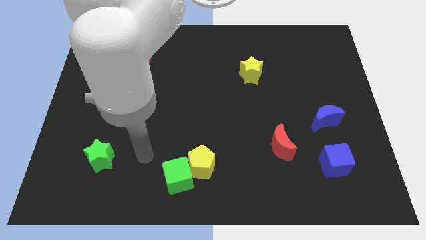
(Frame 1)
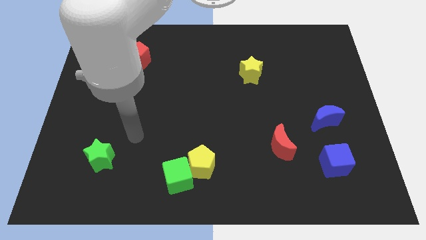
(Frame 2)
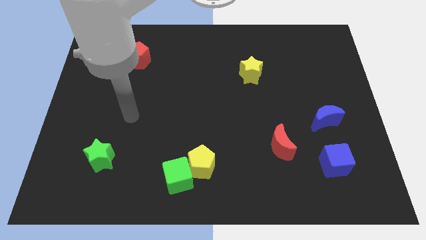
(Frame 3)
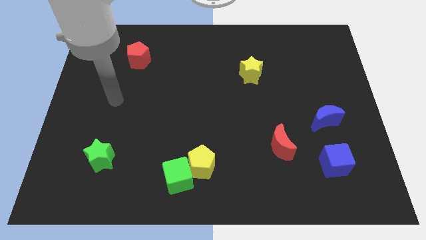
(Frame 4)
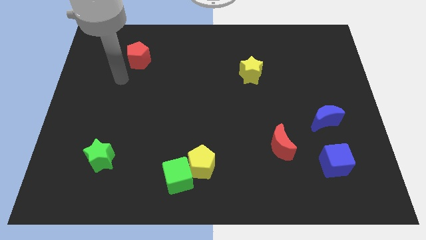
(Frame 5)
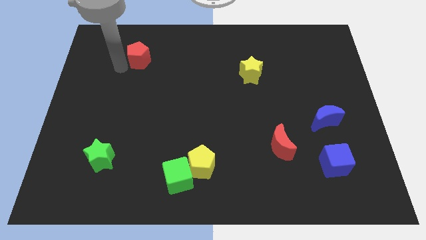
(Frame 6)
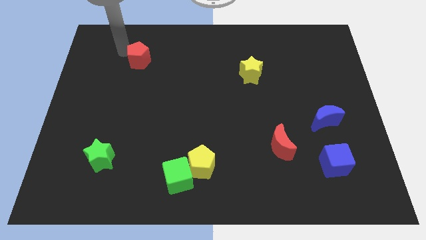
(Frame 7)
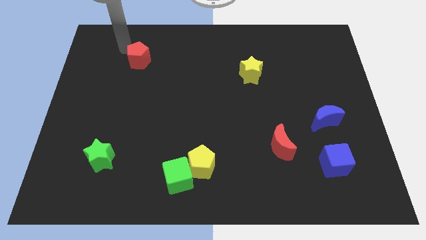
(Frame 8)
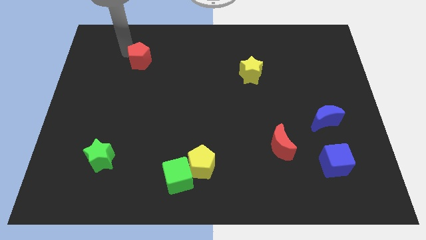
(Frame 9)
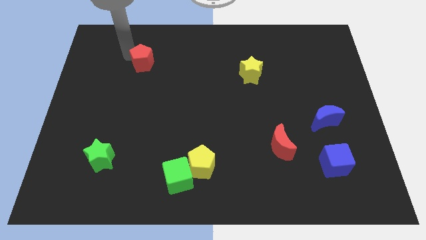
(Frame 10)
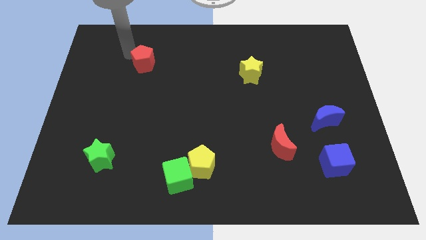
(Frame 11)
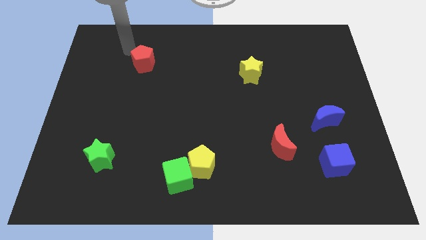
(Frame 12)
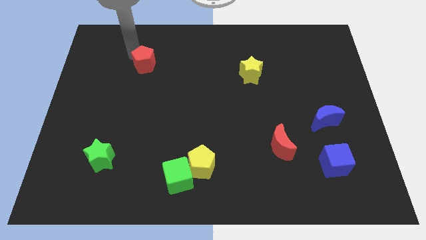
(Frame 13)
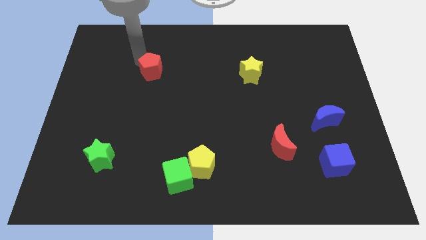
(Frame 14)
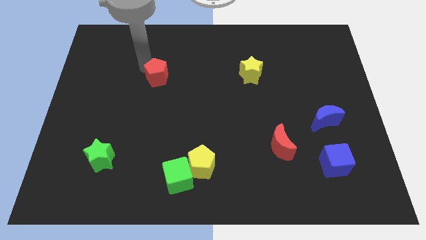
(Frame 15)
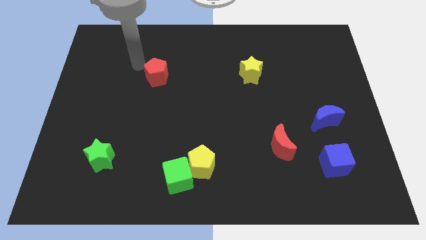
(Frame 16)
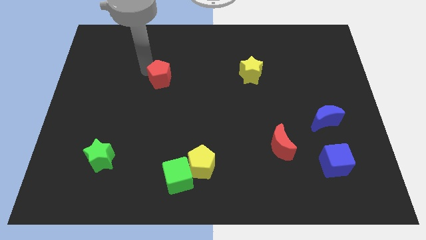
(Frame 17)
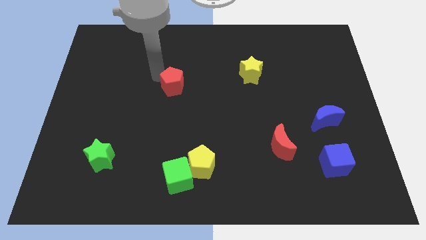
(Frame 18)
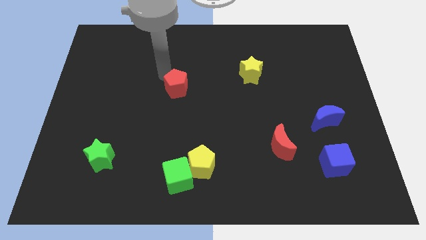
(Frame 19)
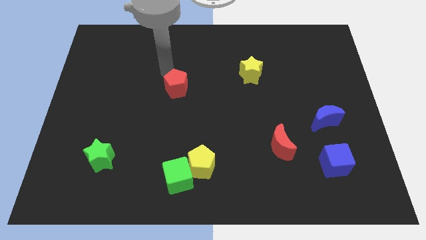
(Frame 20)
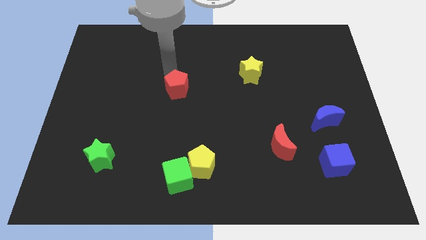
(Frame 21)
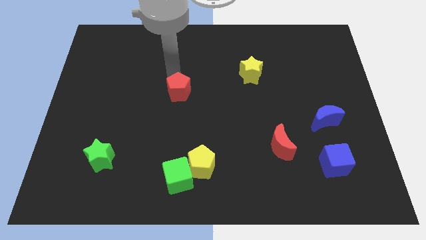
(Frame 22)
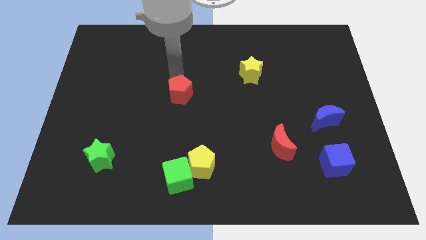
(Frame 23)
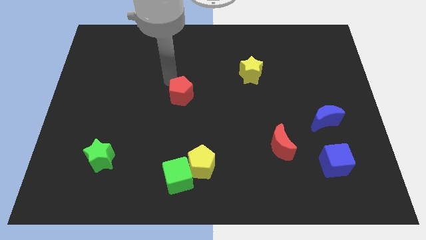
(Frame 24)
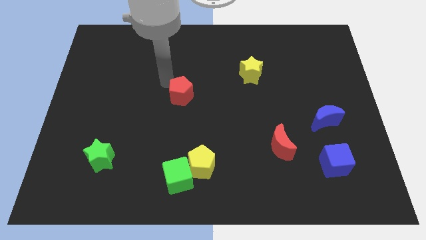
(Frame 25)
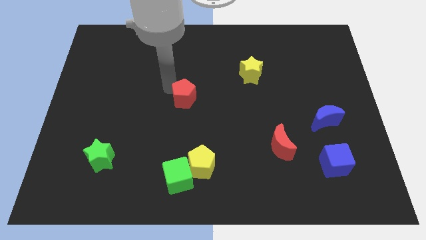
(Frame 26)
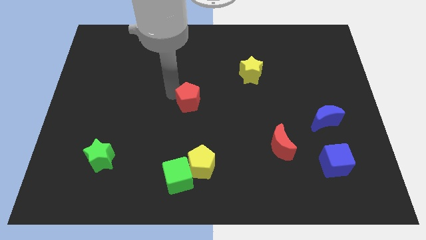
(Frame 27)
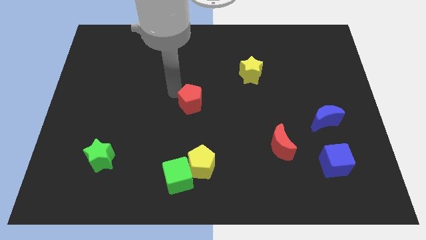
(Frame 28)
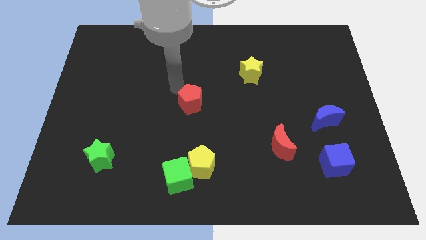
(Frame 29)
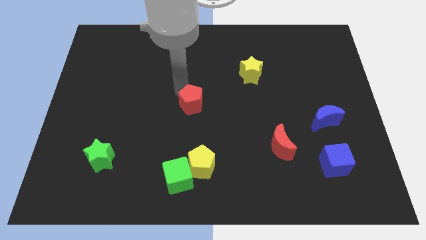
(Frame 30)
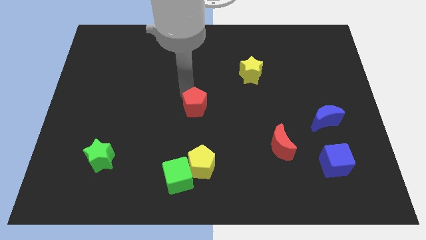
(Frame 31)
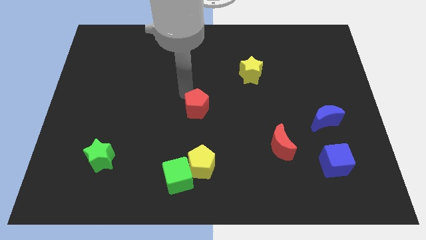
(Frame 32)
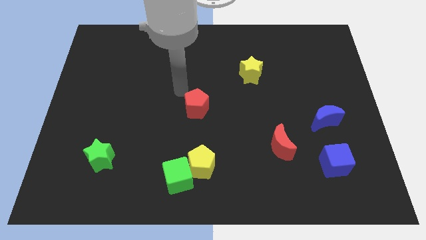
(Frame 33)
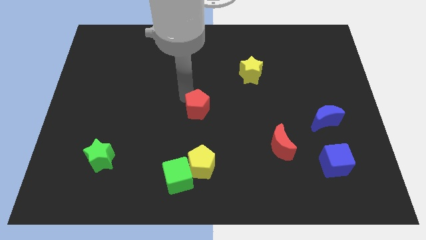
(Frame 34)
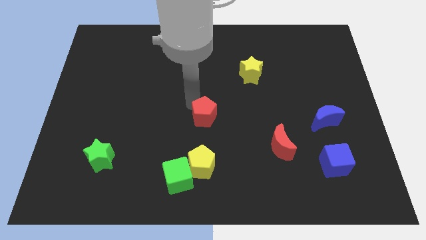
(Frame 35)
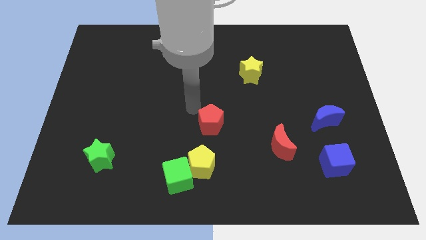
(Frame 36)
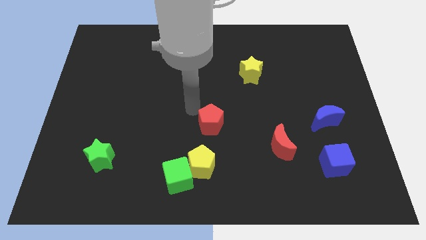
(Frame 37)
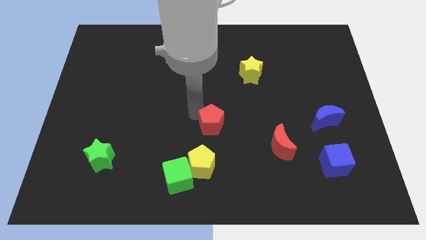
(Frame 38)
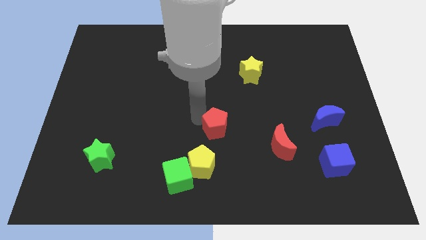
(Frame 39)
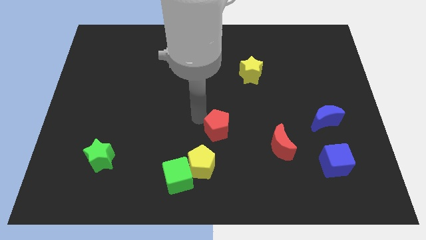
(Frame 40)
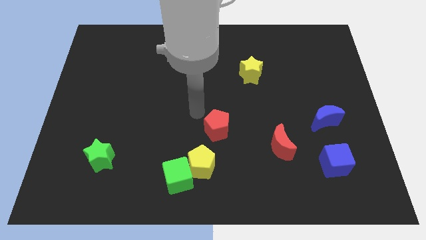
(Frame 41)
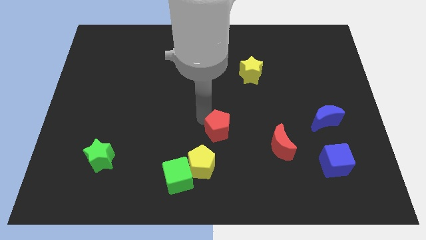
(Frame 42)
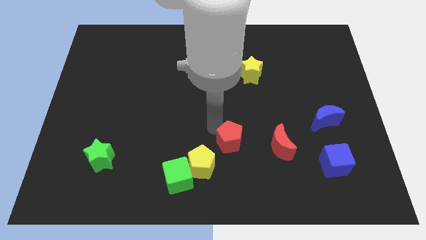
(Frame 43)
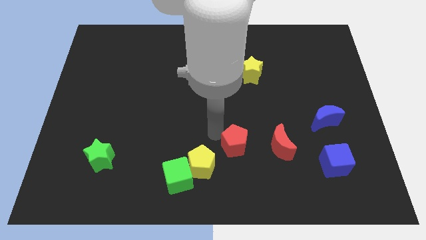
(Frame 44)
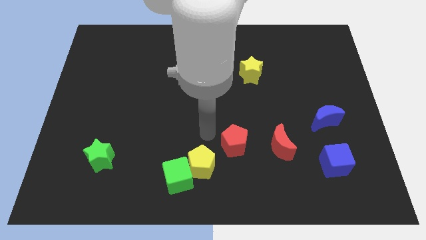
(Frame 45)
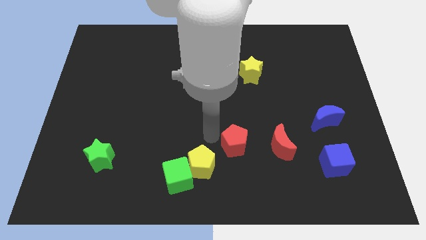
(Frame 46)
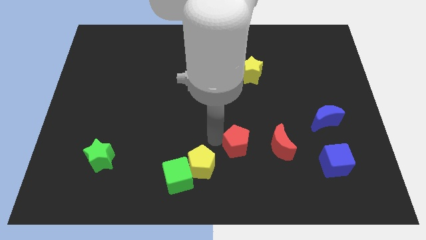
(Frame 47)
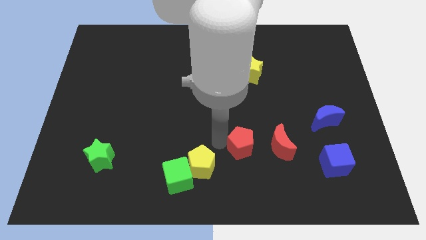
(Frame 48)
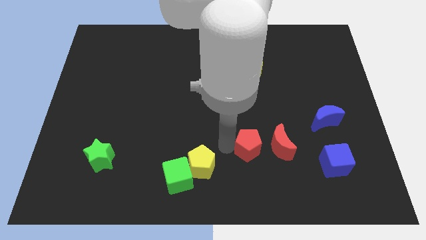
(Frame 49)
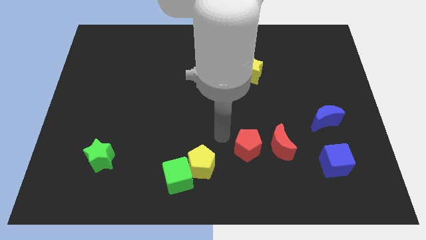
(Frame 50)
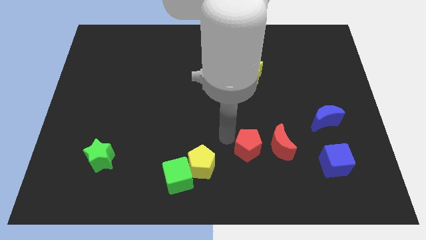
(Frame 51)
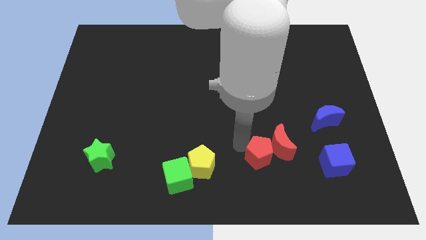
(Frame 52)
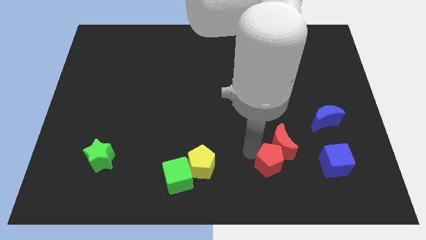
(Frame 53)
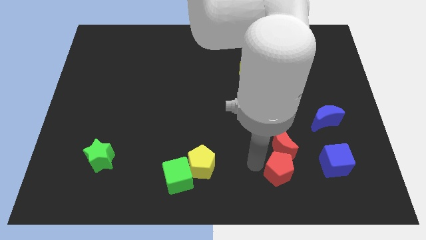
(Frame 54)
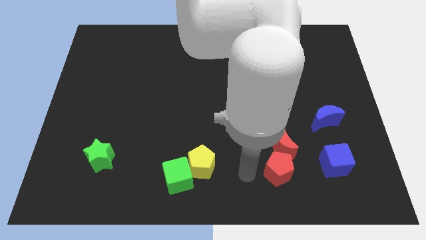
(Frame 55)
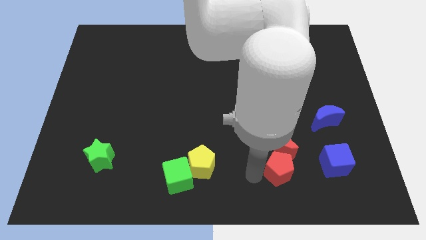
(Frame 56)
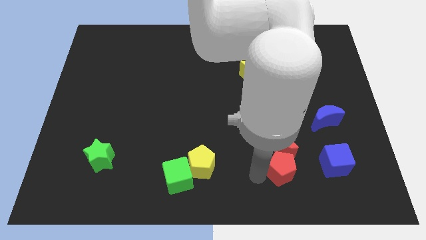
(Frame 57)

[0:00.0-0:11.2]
slide the red pentagon to the bottom right of the red moon

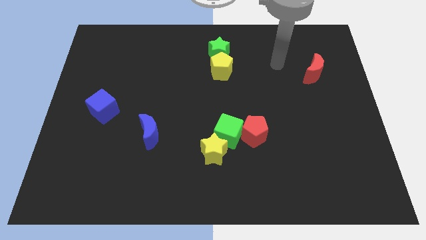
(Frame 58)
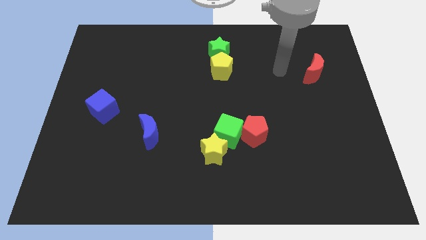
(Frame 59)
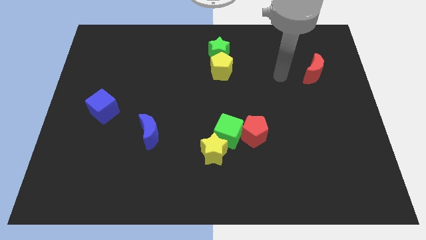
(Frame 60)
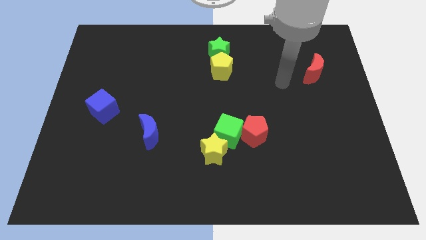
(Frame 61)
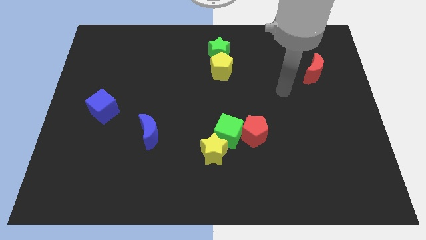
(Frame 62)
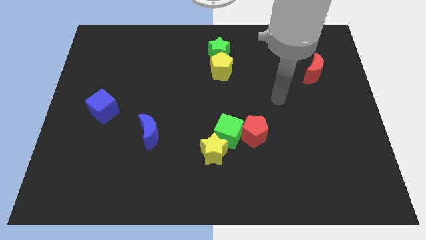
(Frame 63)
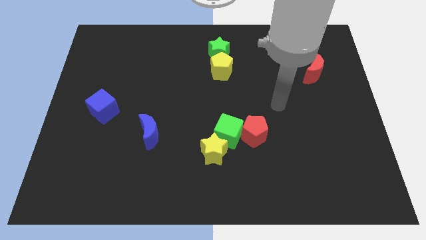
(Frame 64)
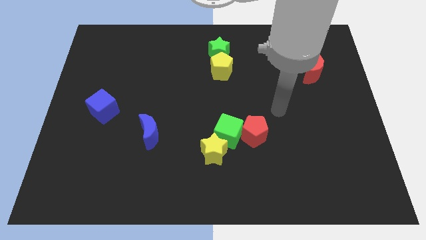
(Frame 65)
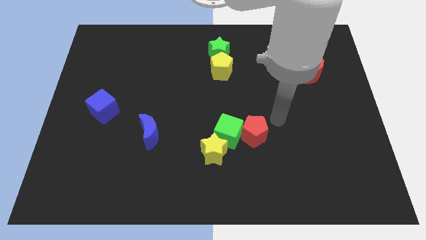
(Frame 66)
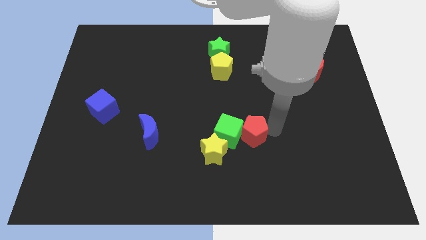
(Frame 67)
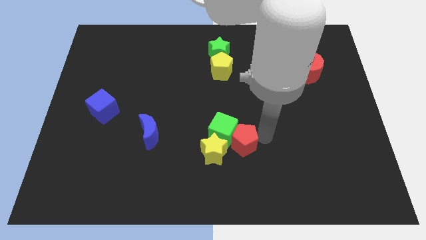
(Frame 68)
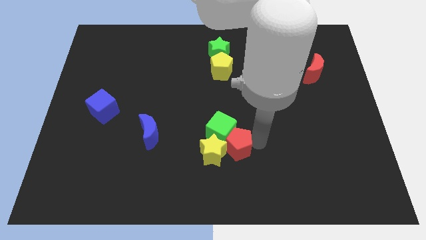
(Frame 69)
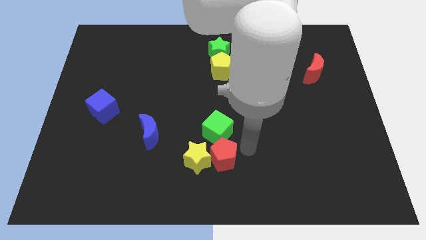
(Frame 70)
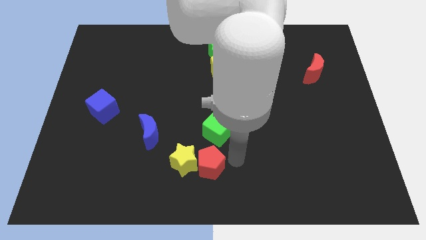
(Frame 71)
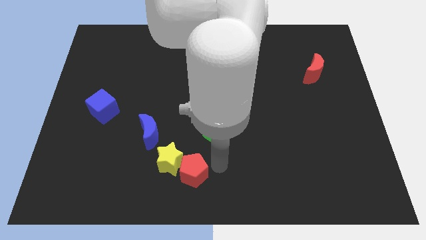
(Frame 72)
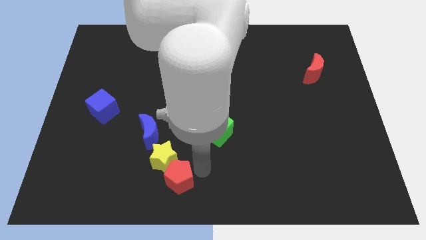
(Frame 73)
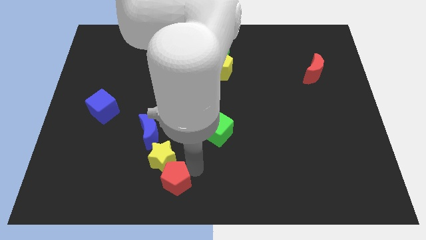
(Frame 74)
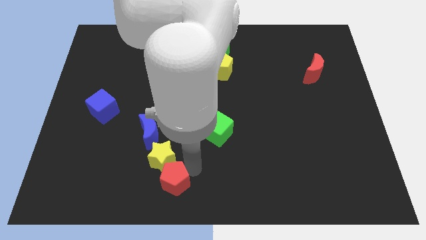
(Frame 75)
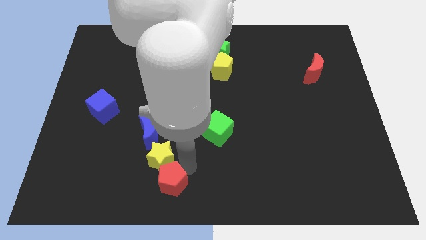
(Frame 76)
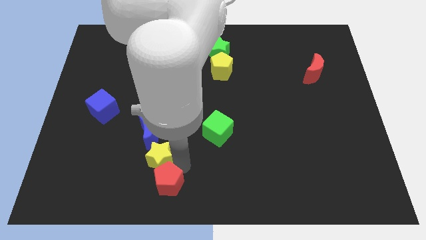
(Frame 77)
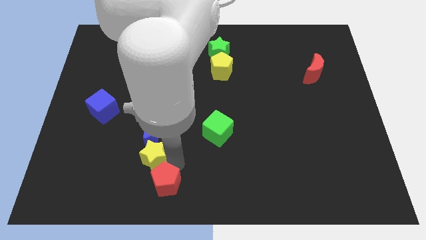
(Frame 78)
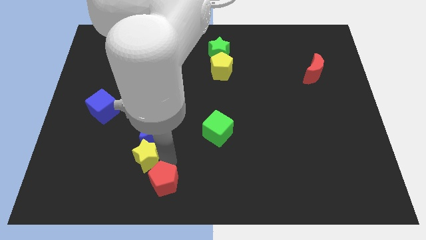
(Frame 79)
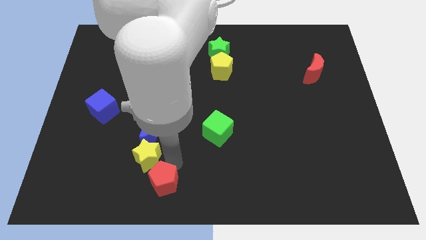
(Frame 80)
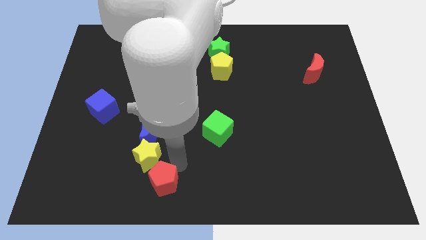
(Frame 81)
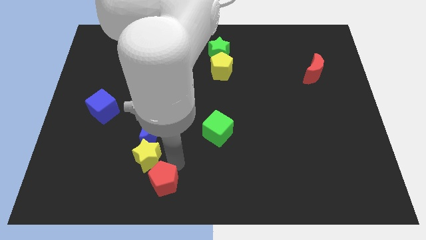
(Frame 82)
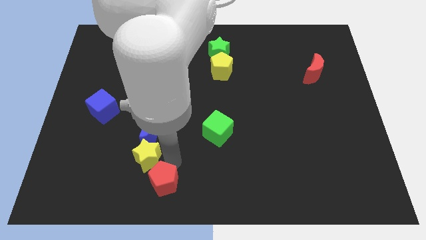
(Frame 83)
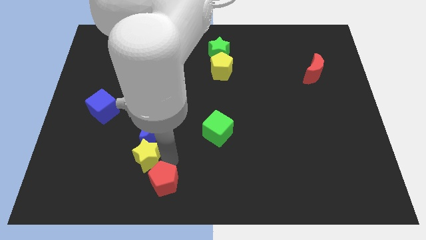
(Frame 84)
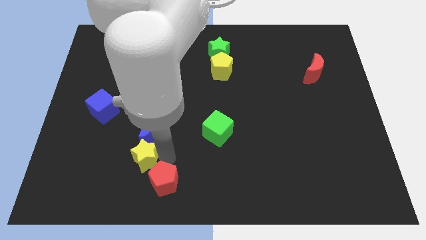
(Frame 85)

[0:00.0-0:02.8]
put the yellow star diagonally down and to the left of the blue moon
